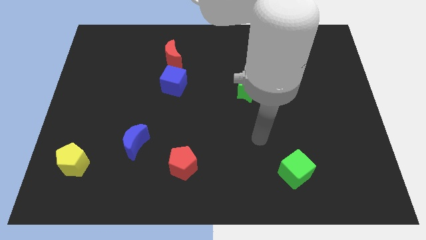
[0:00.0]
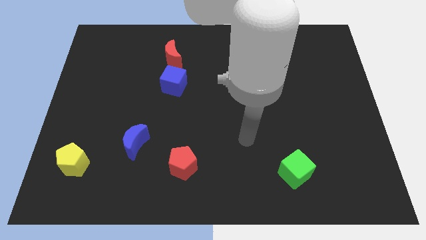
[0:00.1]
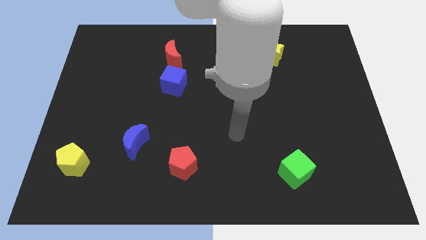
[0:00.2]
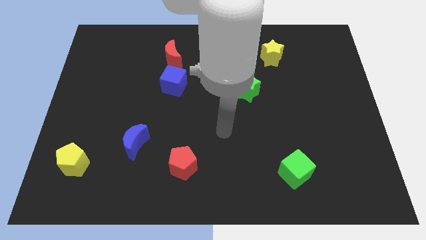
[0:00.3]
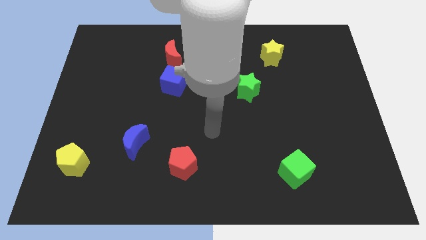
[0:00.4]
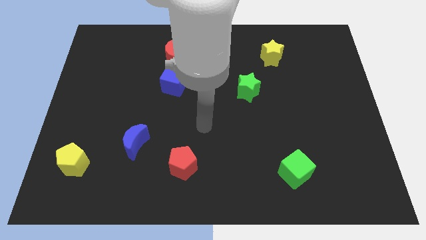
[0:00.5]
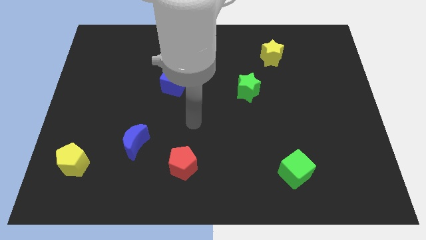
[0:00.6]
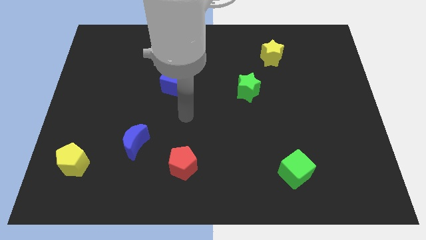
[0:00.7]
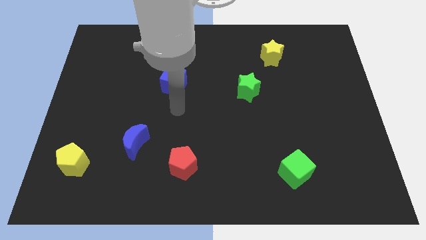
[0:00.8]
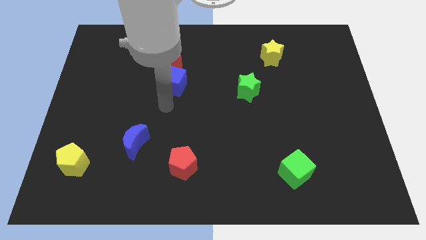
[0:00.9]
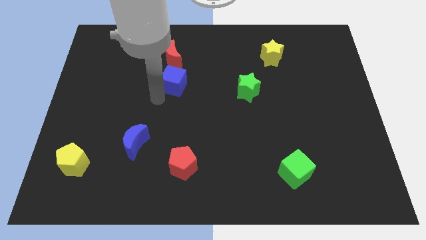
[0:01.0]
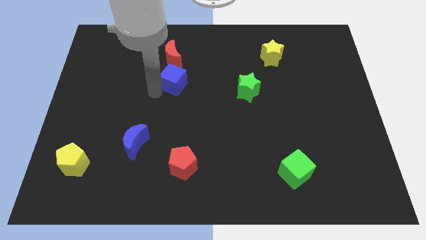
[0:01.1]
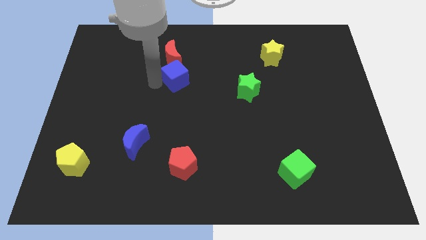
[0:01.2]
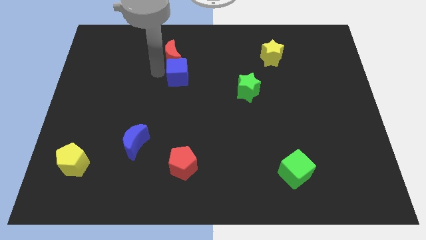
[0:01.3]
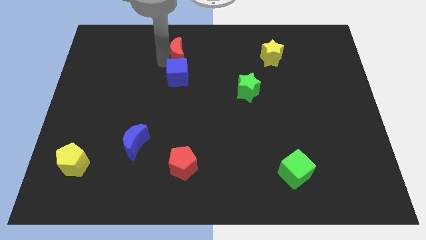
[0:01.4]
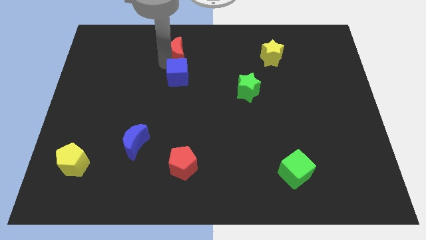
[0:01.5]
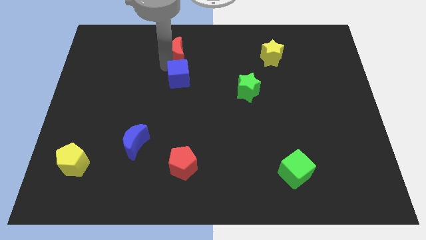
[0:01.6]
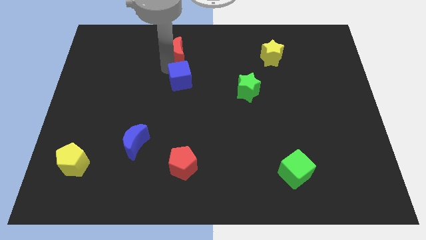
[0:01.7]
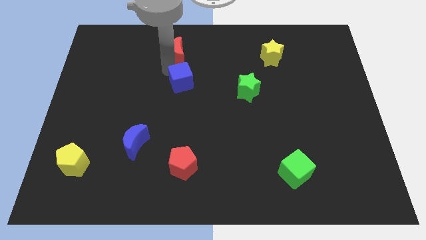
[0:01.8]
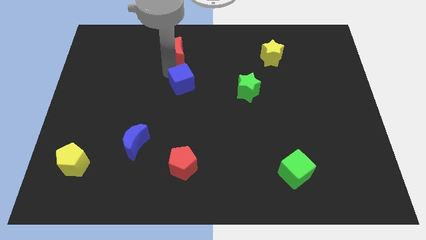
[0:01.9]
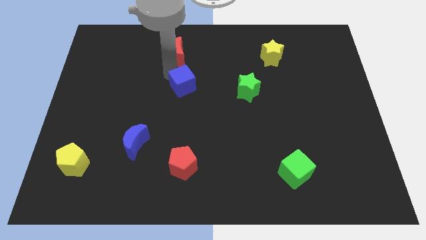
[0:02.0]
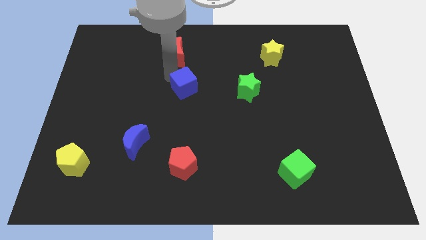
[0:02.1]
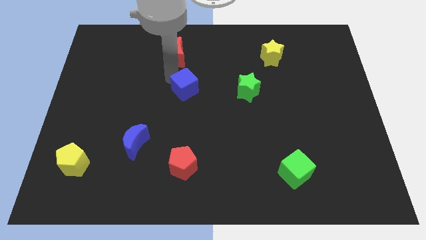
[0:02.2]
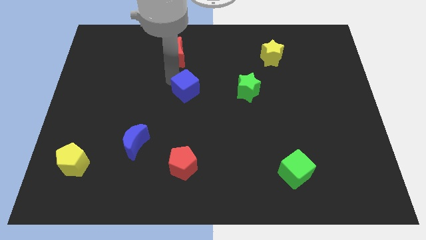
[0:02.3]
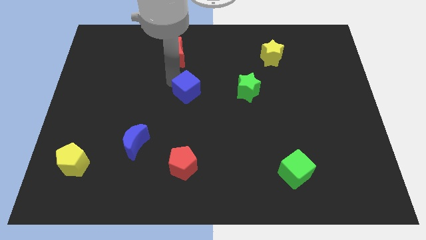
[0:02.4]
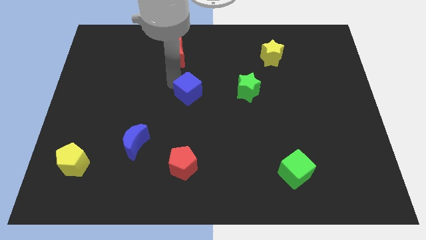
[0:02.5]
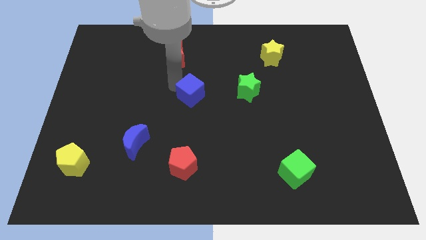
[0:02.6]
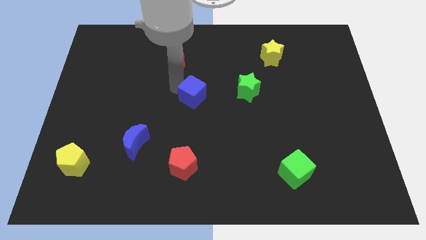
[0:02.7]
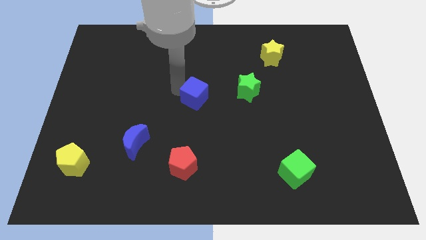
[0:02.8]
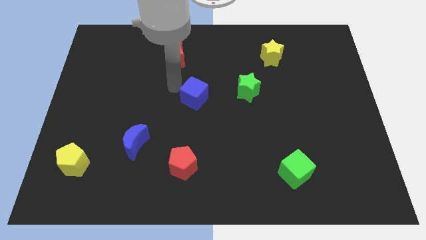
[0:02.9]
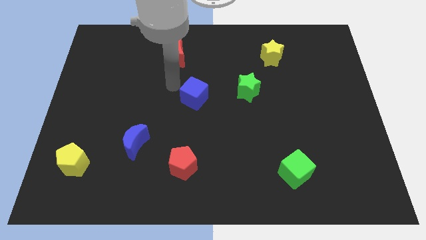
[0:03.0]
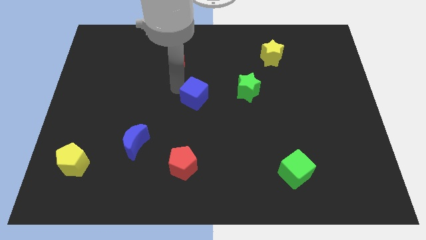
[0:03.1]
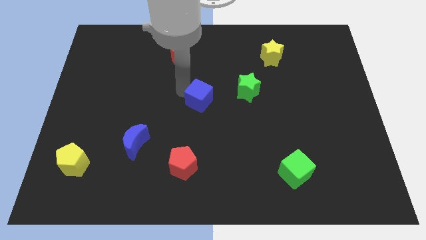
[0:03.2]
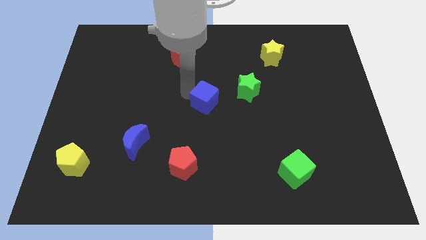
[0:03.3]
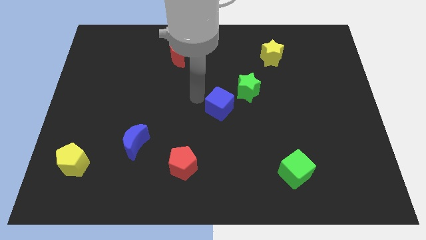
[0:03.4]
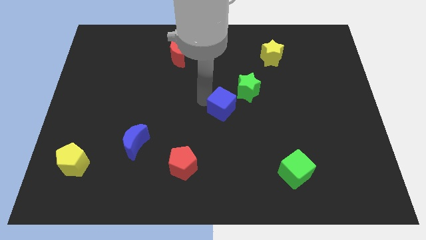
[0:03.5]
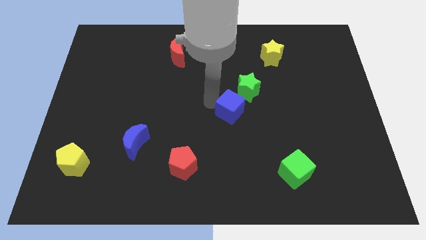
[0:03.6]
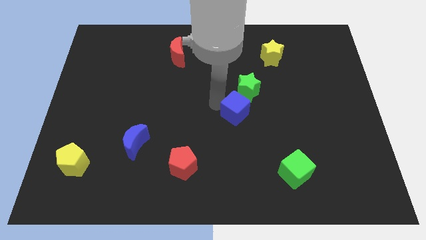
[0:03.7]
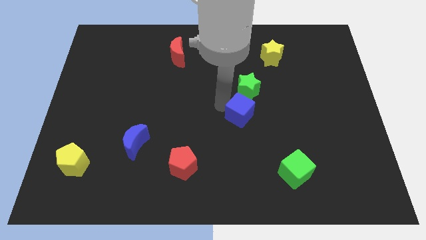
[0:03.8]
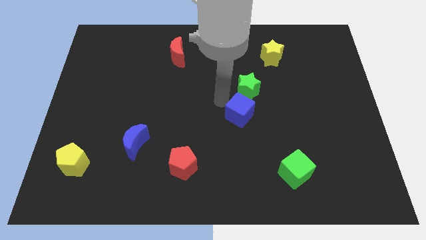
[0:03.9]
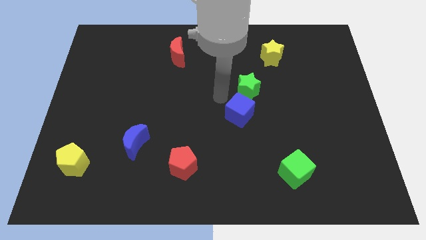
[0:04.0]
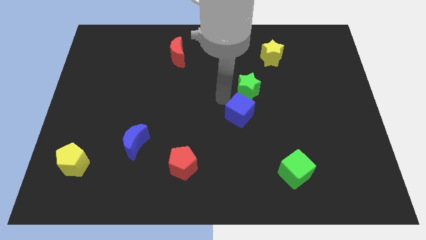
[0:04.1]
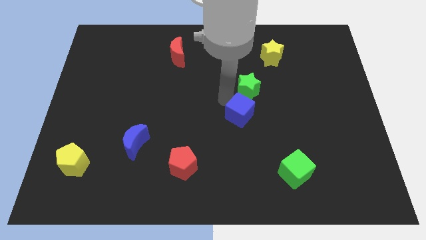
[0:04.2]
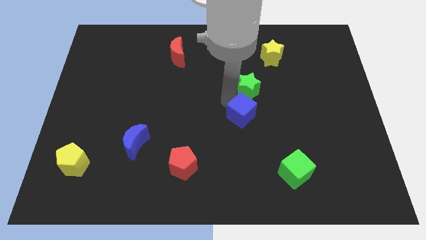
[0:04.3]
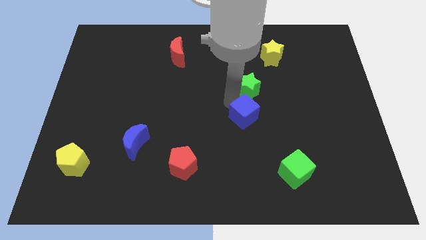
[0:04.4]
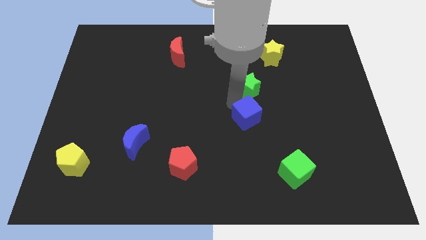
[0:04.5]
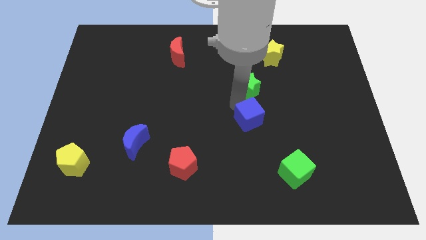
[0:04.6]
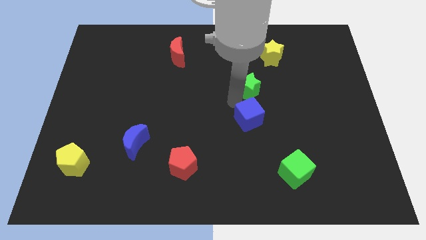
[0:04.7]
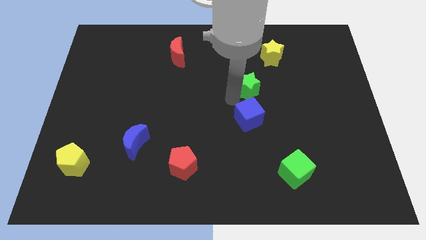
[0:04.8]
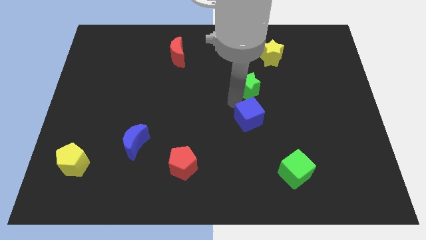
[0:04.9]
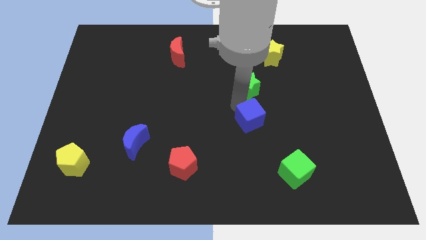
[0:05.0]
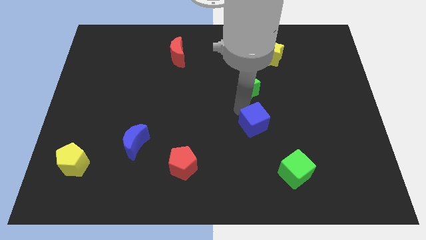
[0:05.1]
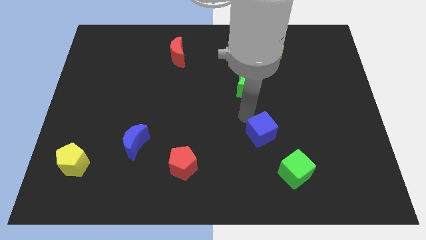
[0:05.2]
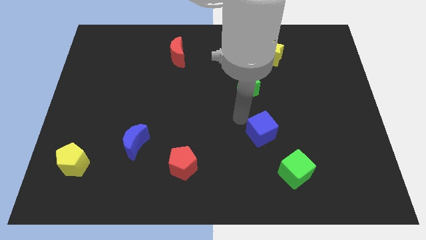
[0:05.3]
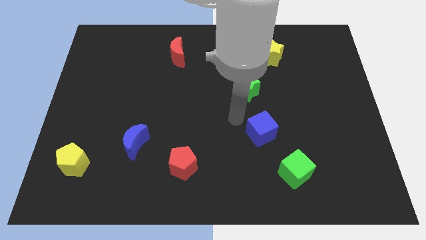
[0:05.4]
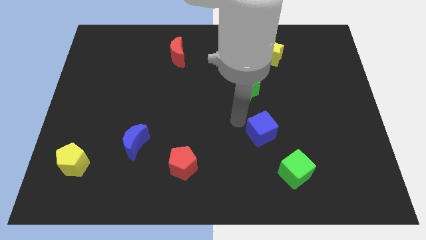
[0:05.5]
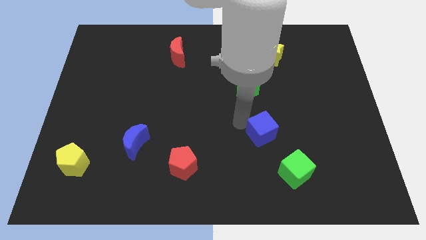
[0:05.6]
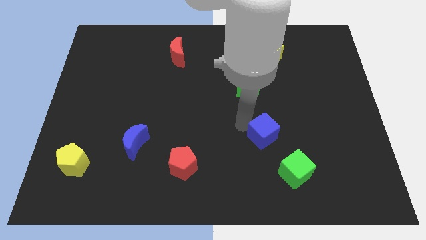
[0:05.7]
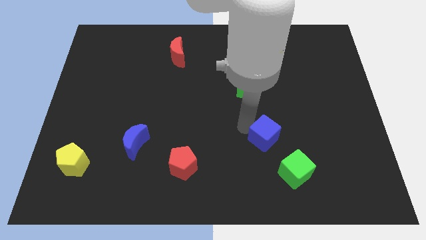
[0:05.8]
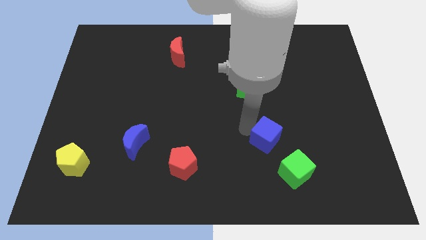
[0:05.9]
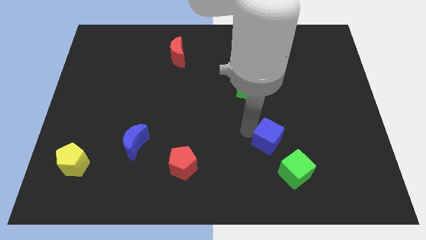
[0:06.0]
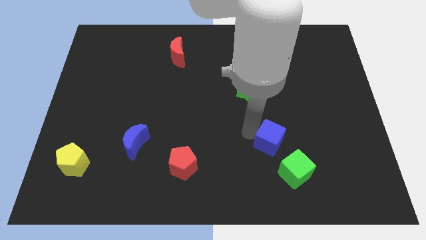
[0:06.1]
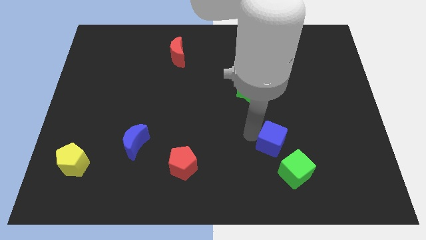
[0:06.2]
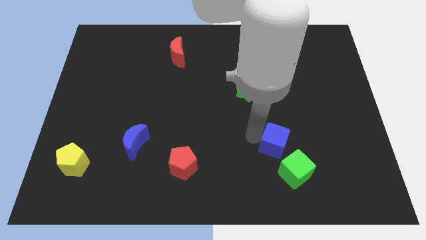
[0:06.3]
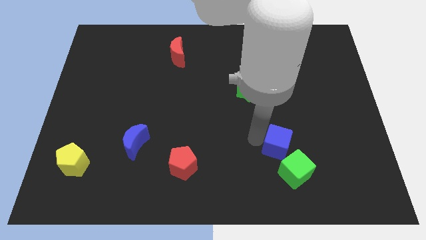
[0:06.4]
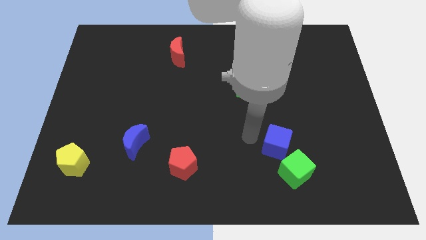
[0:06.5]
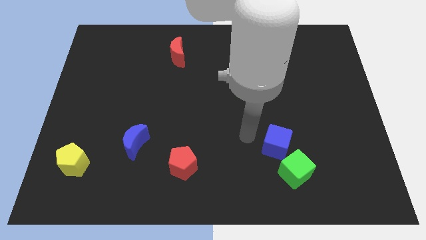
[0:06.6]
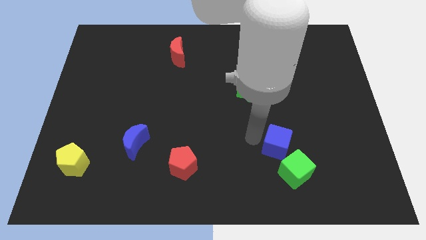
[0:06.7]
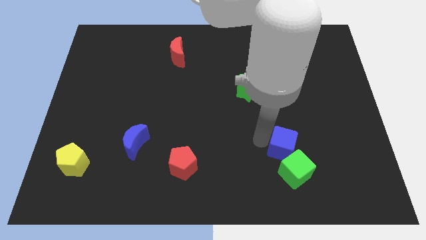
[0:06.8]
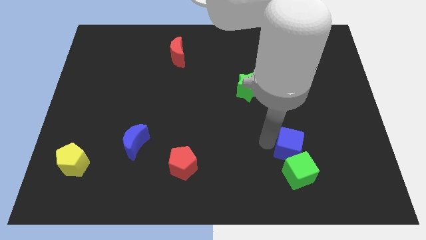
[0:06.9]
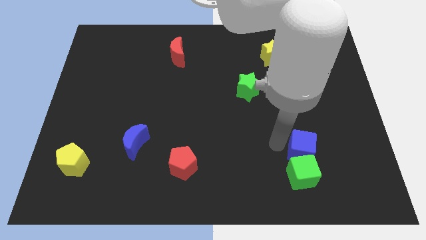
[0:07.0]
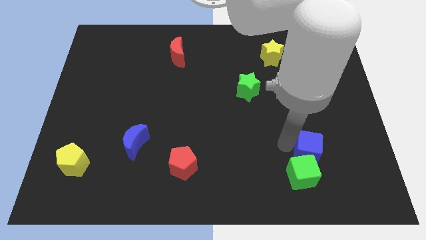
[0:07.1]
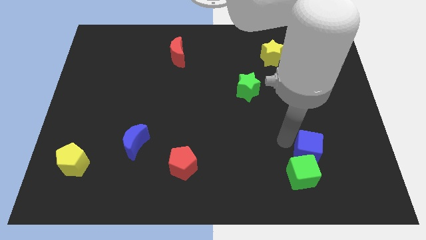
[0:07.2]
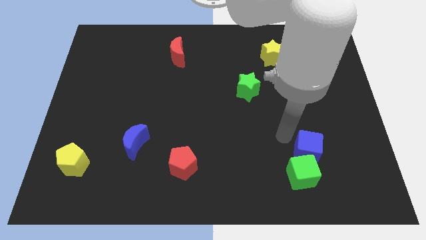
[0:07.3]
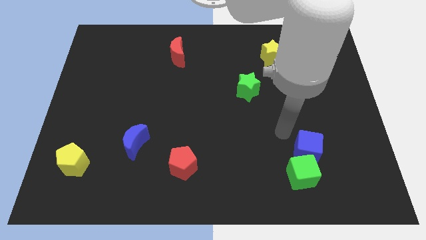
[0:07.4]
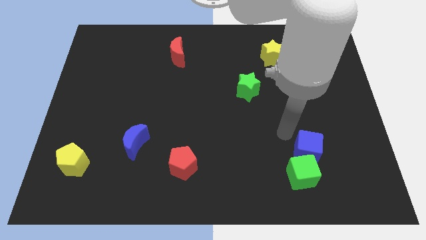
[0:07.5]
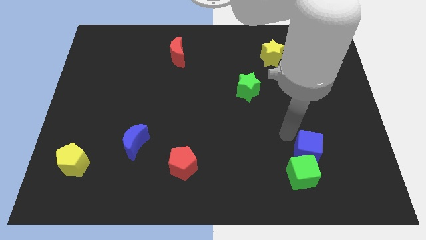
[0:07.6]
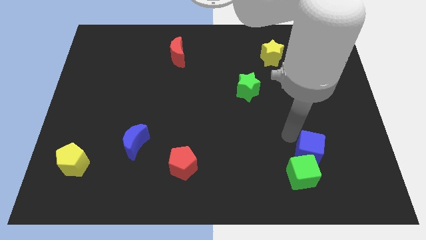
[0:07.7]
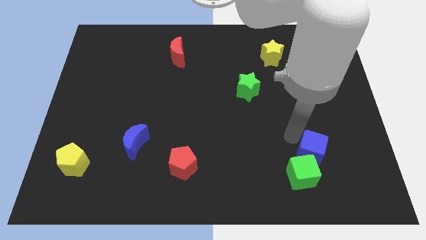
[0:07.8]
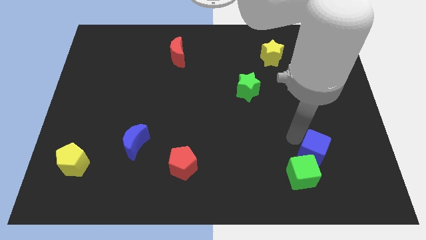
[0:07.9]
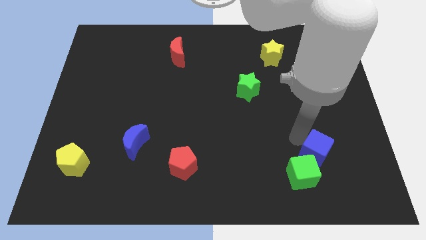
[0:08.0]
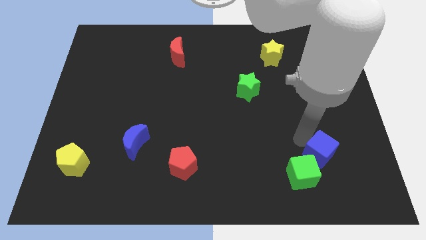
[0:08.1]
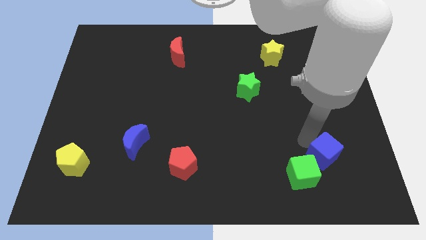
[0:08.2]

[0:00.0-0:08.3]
move the blue cube to the right of the green cube
